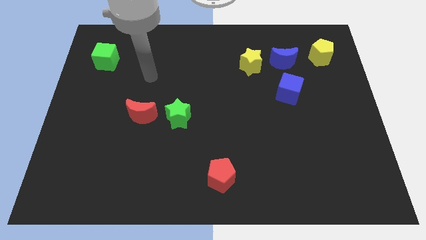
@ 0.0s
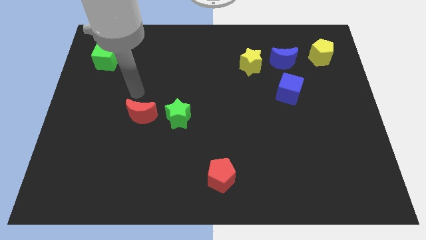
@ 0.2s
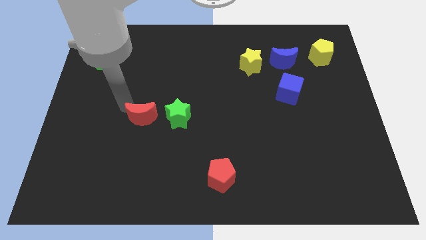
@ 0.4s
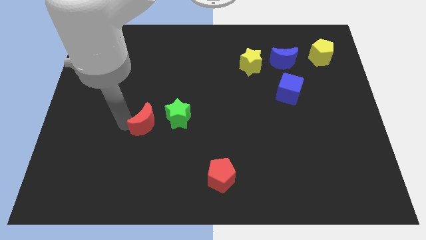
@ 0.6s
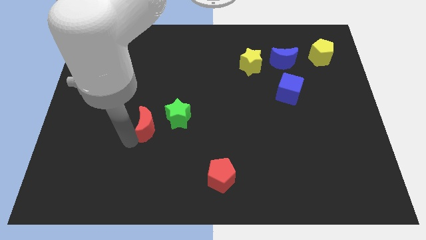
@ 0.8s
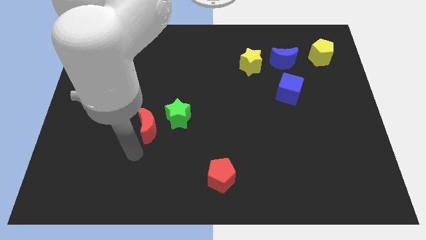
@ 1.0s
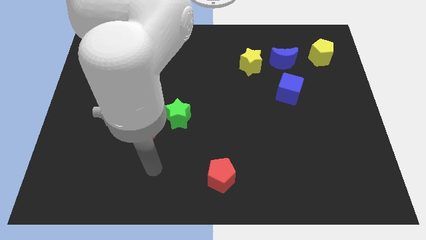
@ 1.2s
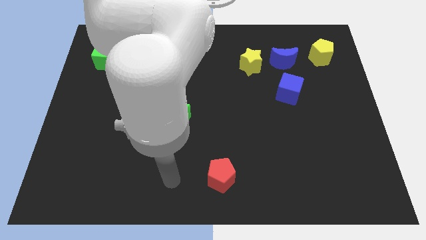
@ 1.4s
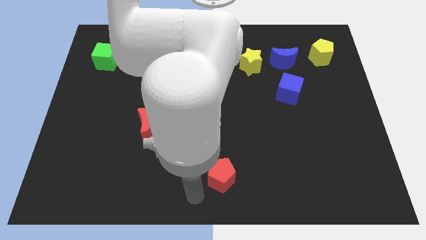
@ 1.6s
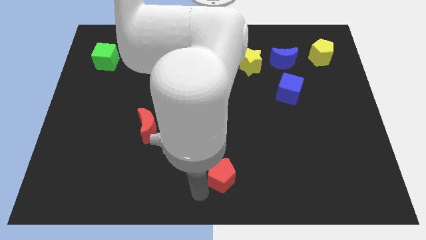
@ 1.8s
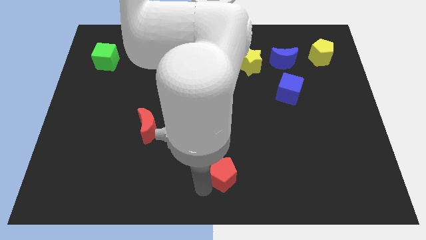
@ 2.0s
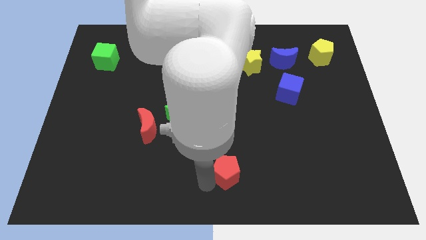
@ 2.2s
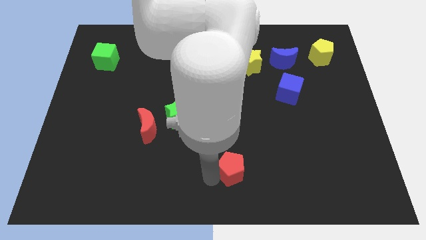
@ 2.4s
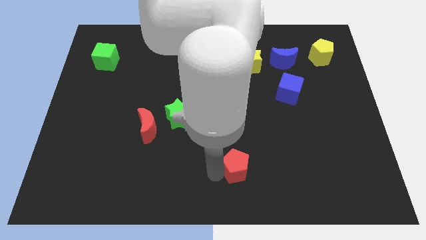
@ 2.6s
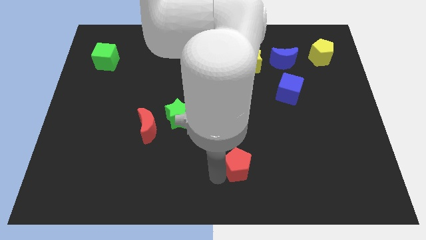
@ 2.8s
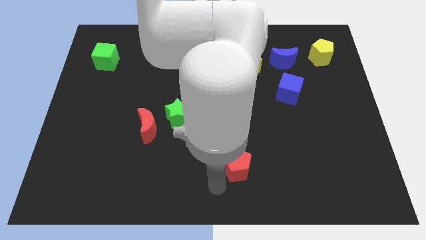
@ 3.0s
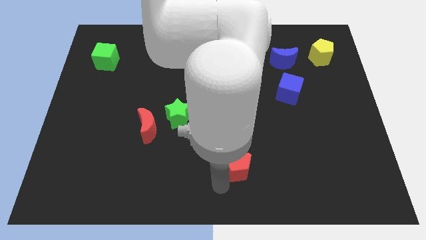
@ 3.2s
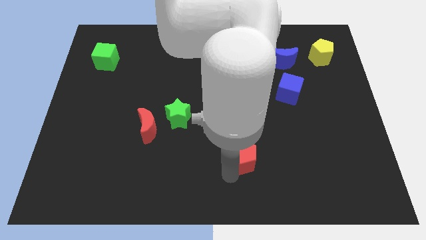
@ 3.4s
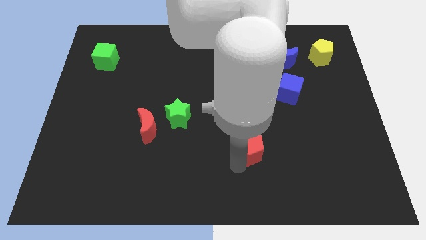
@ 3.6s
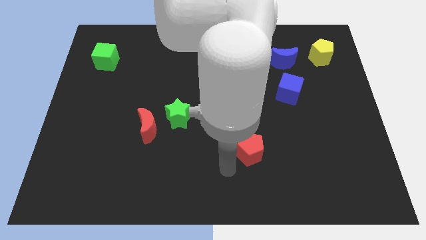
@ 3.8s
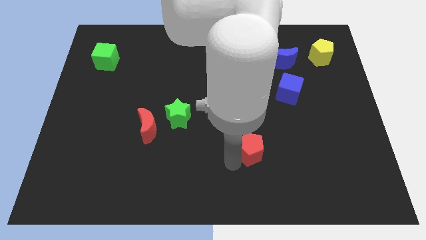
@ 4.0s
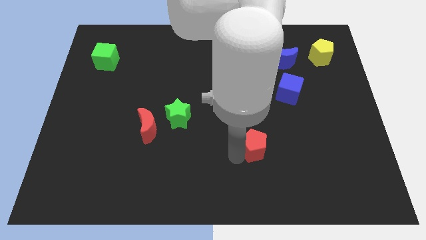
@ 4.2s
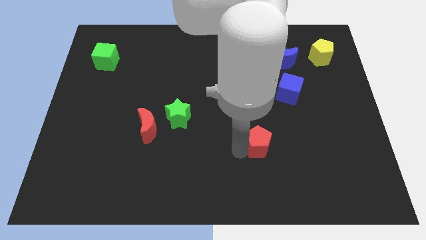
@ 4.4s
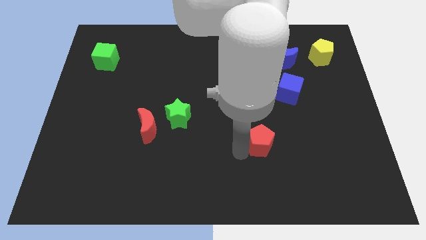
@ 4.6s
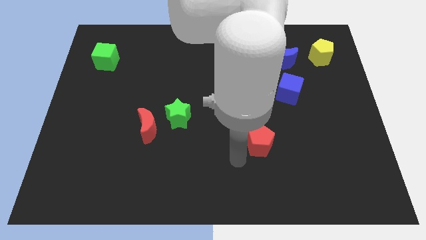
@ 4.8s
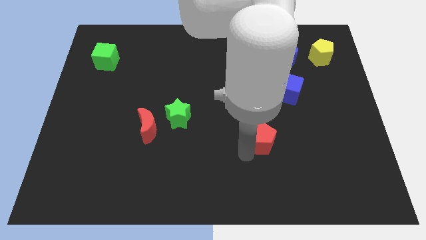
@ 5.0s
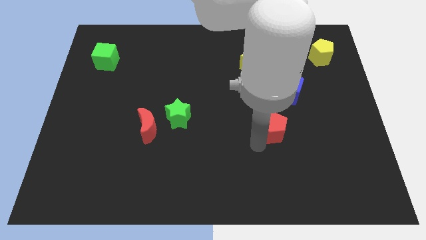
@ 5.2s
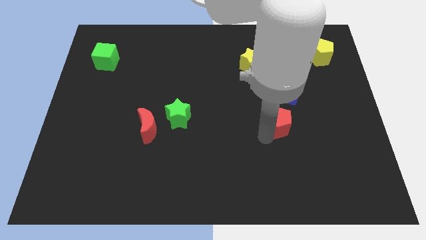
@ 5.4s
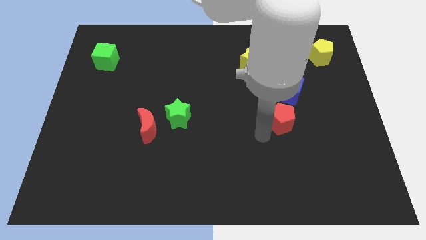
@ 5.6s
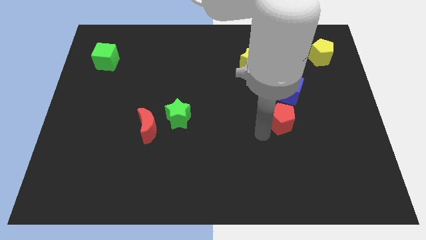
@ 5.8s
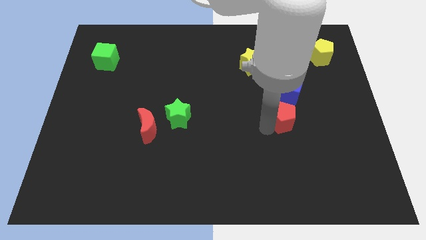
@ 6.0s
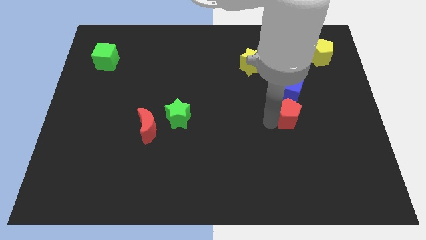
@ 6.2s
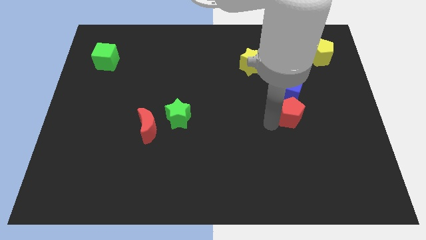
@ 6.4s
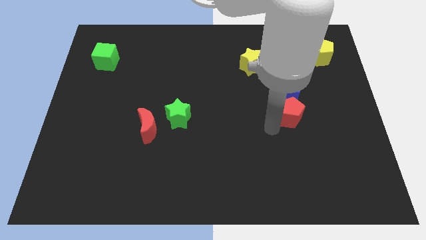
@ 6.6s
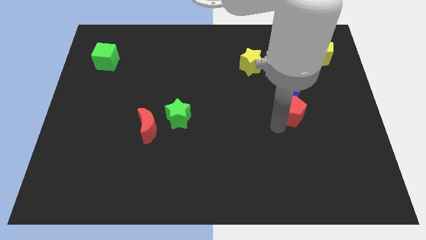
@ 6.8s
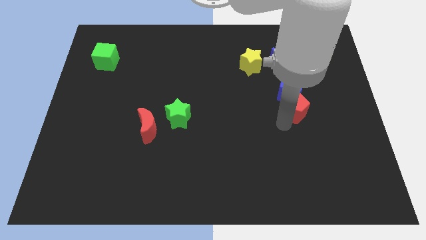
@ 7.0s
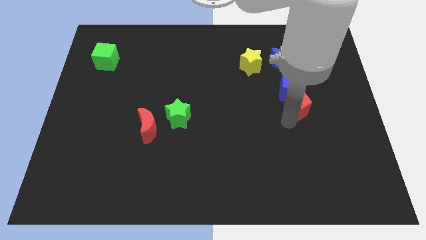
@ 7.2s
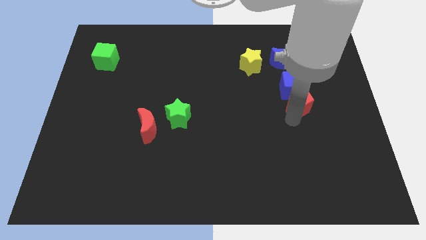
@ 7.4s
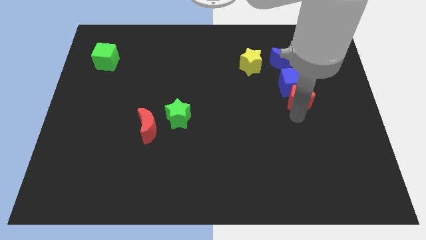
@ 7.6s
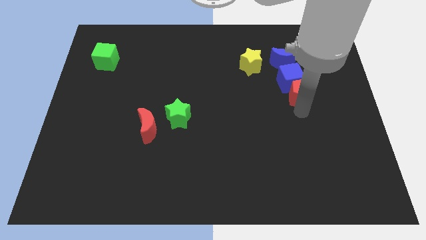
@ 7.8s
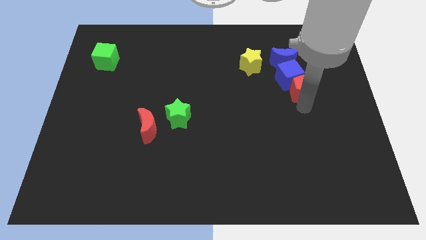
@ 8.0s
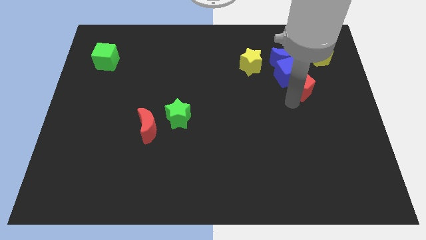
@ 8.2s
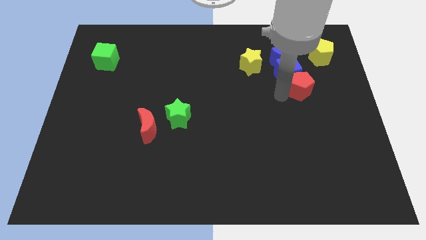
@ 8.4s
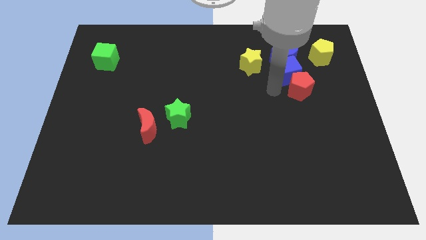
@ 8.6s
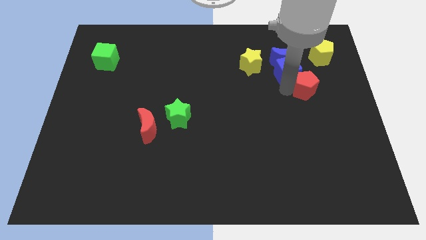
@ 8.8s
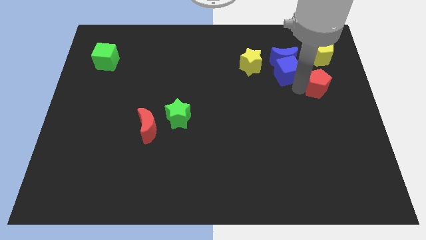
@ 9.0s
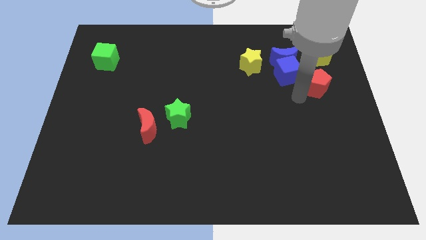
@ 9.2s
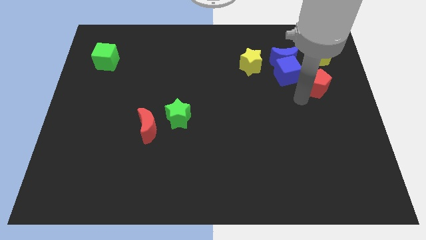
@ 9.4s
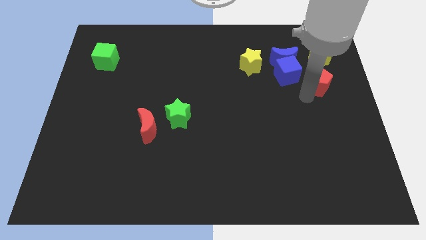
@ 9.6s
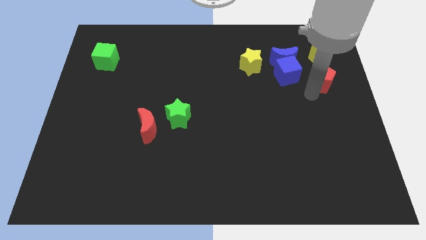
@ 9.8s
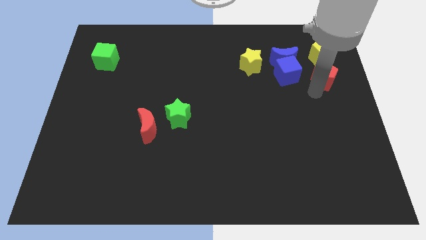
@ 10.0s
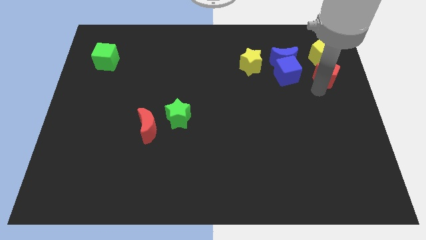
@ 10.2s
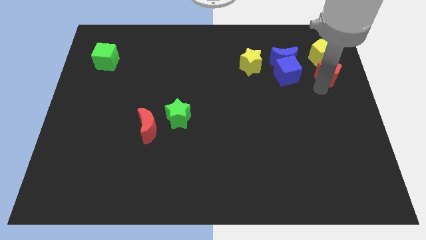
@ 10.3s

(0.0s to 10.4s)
slide the red pentagon just right of the blue moon

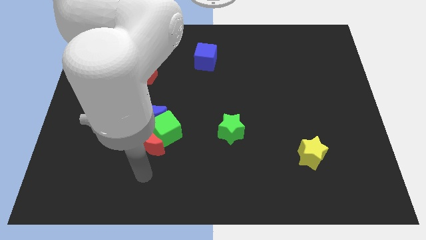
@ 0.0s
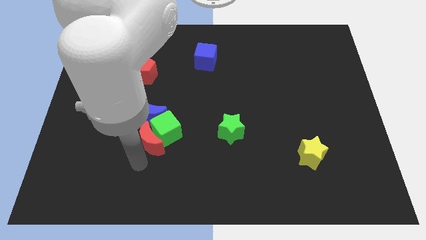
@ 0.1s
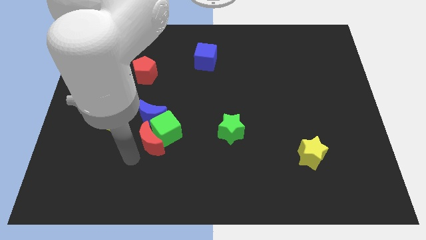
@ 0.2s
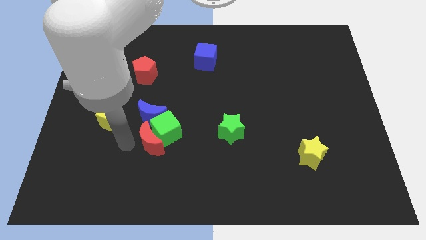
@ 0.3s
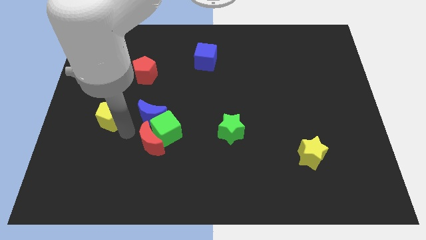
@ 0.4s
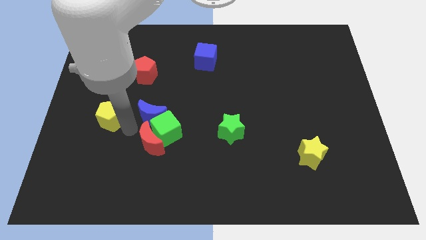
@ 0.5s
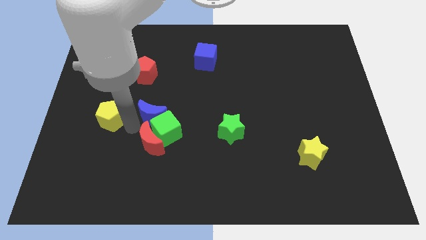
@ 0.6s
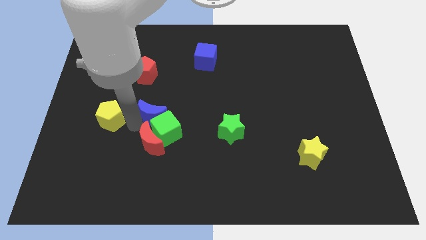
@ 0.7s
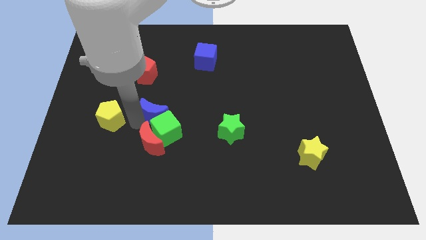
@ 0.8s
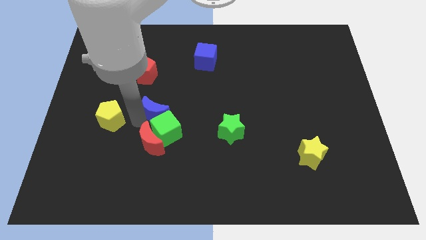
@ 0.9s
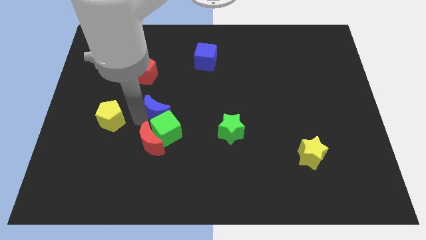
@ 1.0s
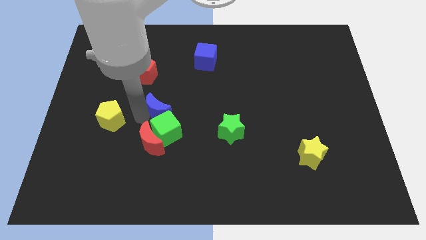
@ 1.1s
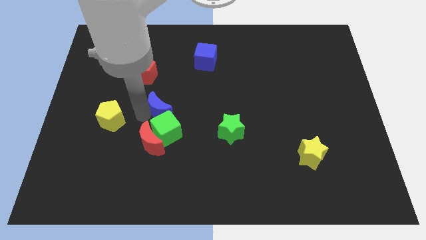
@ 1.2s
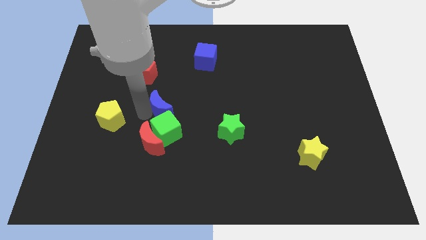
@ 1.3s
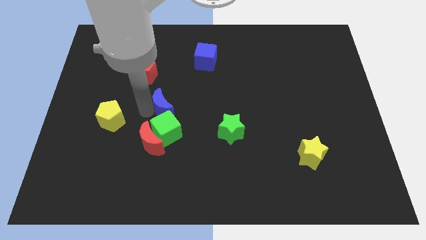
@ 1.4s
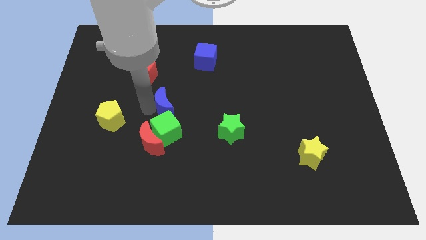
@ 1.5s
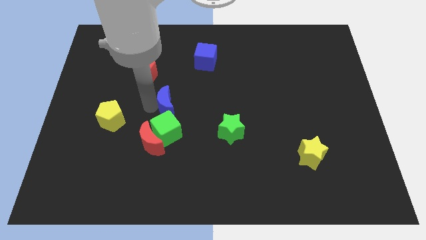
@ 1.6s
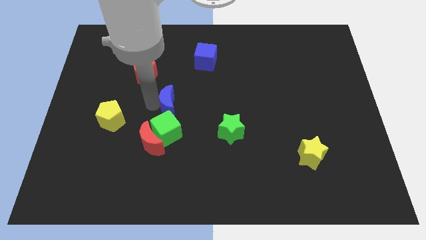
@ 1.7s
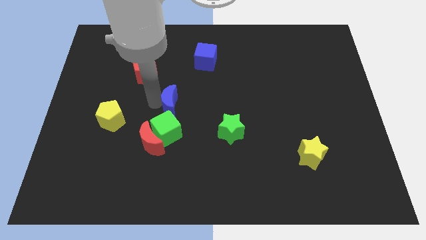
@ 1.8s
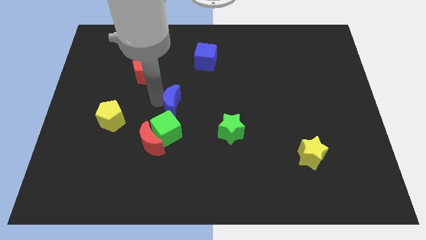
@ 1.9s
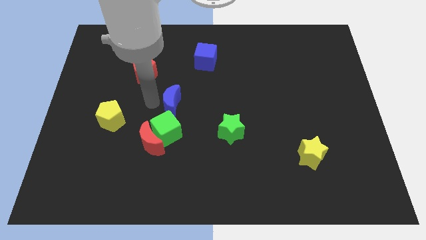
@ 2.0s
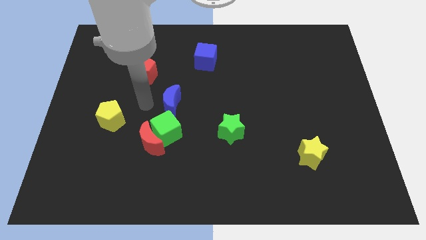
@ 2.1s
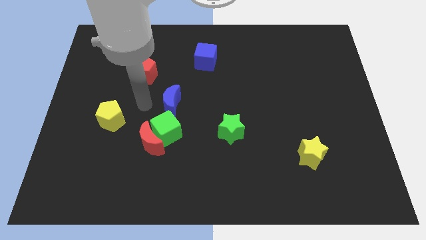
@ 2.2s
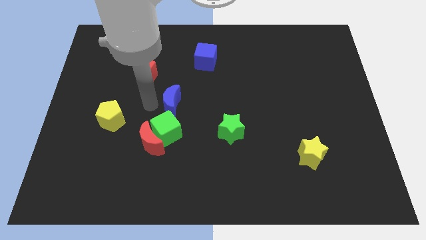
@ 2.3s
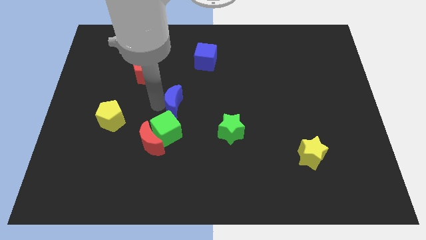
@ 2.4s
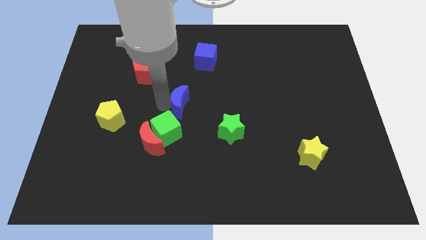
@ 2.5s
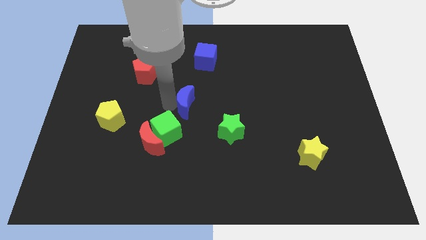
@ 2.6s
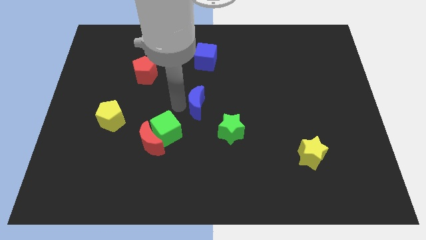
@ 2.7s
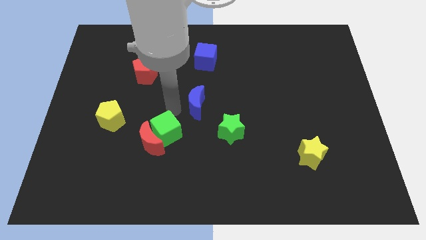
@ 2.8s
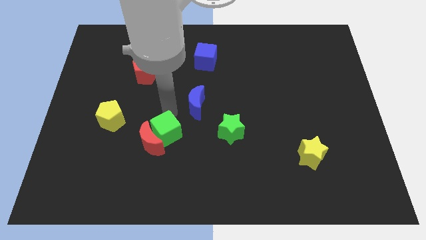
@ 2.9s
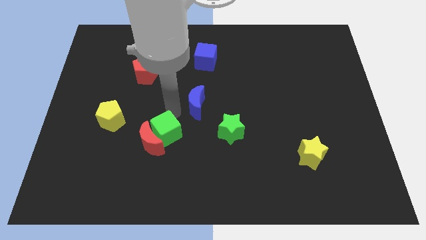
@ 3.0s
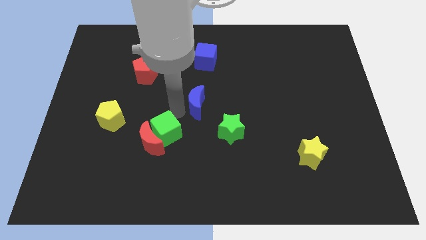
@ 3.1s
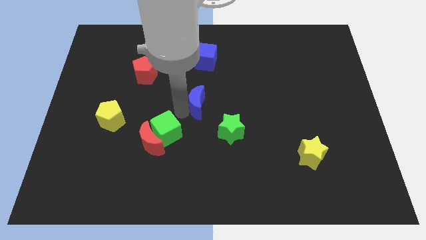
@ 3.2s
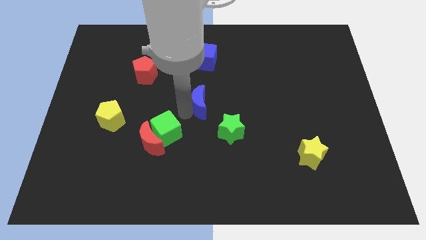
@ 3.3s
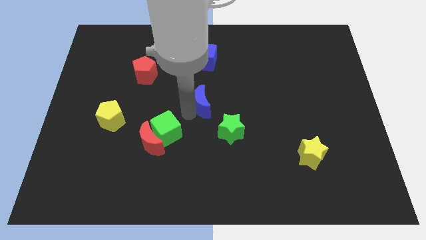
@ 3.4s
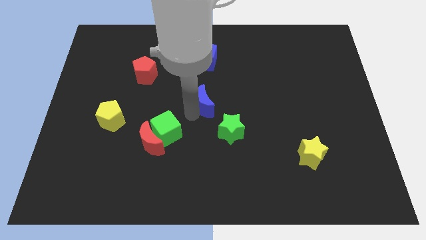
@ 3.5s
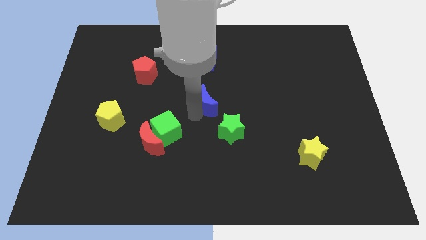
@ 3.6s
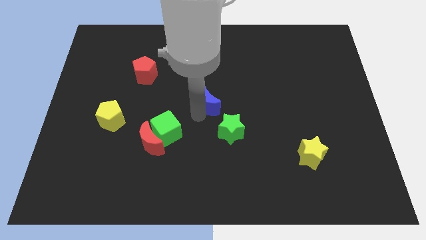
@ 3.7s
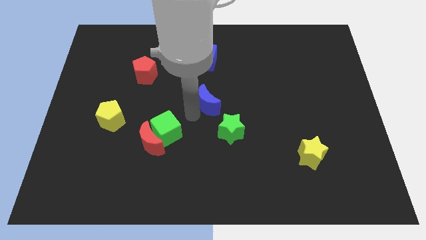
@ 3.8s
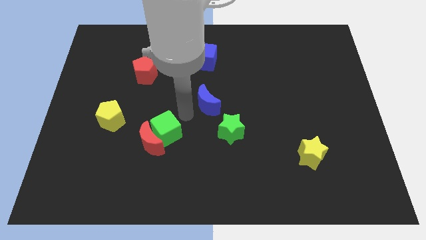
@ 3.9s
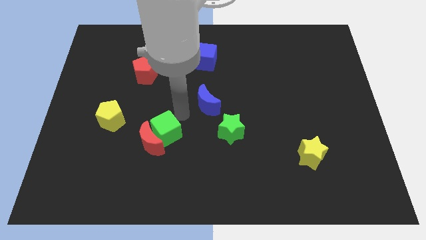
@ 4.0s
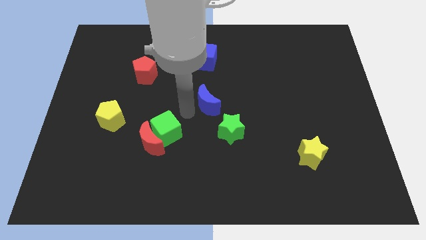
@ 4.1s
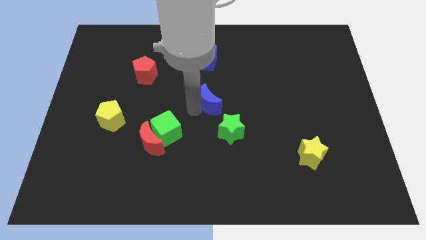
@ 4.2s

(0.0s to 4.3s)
slide the blue moon to the top of the green star
